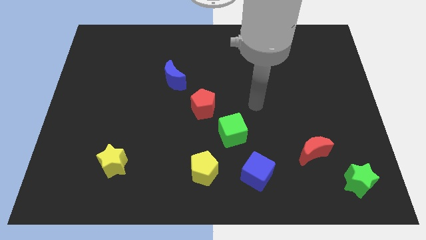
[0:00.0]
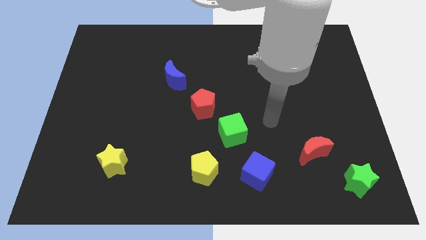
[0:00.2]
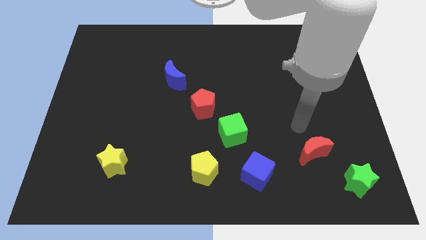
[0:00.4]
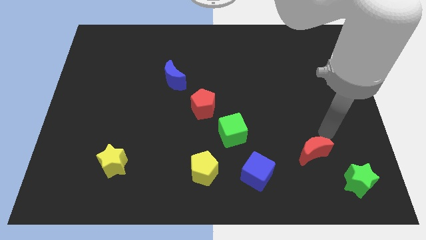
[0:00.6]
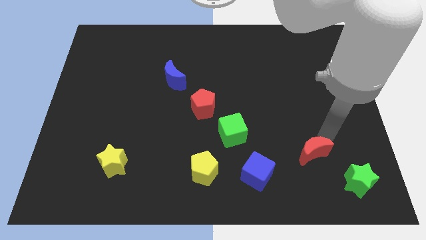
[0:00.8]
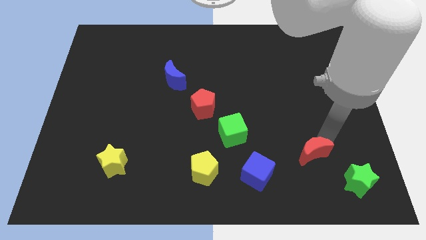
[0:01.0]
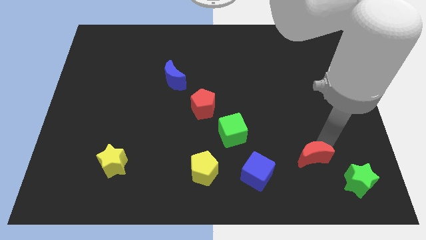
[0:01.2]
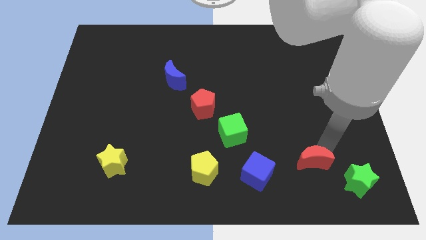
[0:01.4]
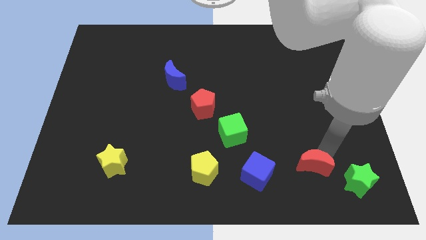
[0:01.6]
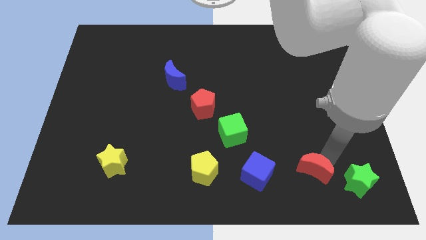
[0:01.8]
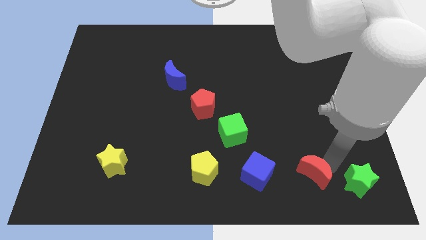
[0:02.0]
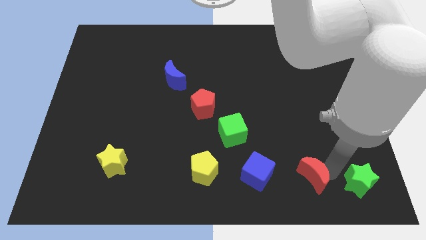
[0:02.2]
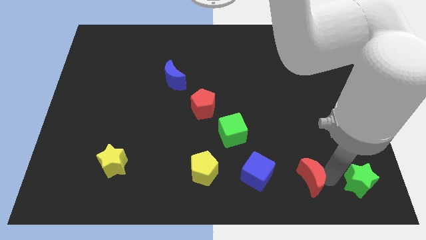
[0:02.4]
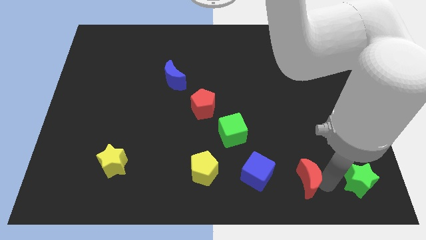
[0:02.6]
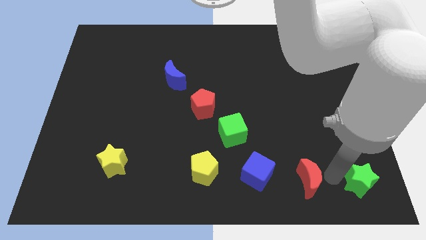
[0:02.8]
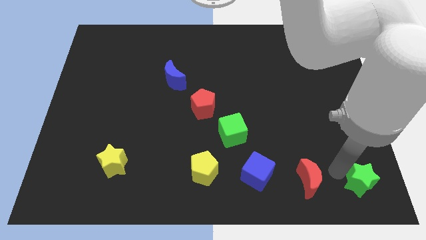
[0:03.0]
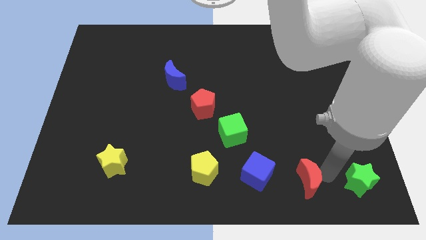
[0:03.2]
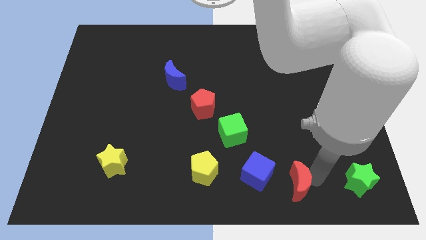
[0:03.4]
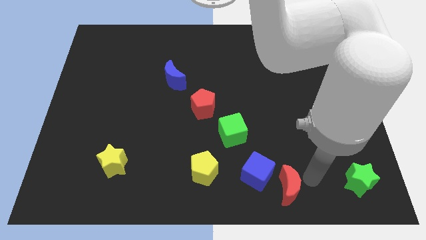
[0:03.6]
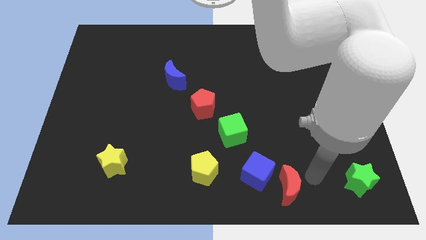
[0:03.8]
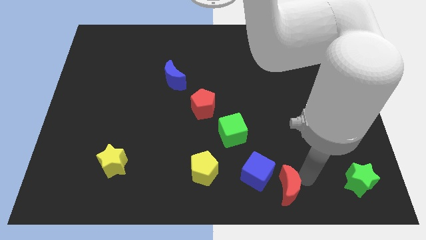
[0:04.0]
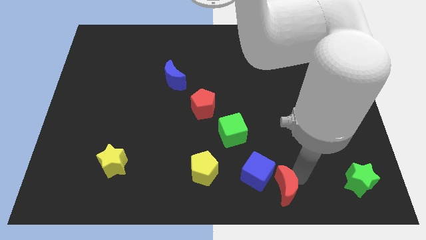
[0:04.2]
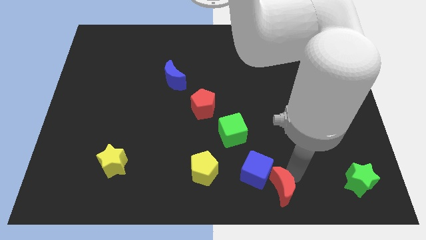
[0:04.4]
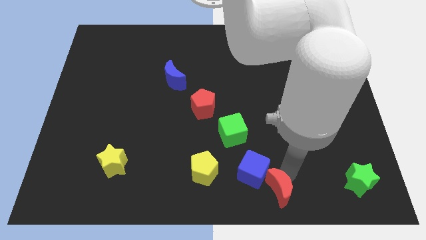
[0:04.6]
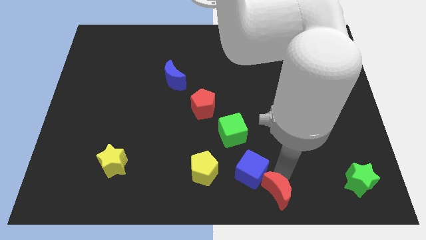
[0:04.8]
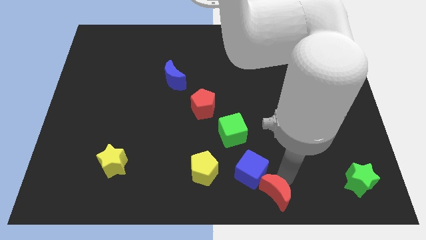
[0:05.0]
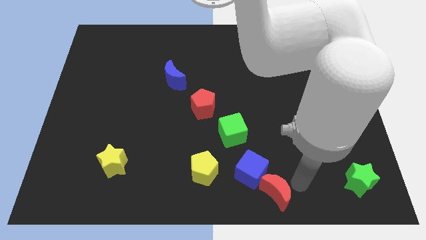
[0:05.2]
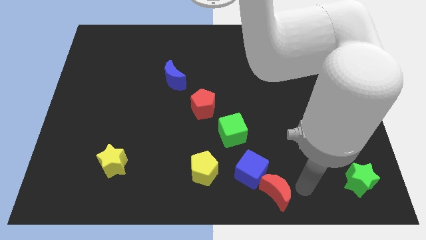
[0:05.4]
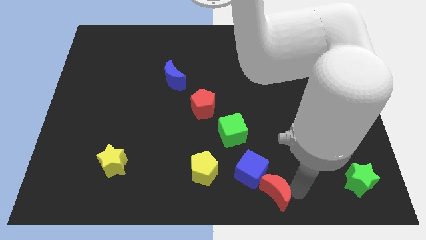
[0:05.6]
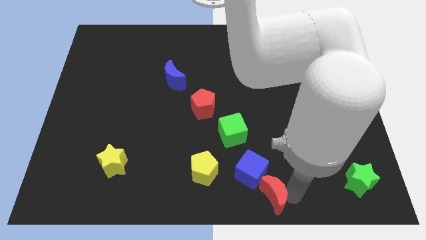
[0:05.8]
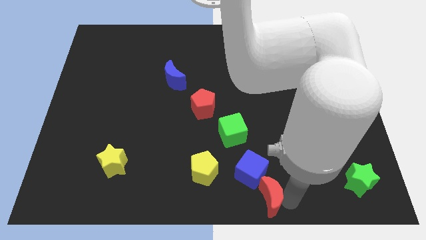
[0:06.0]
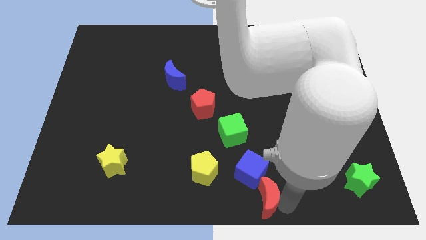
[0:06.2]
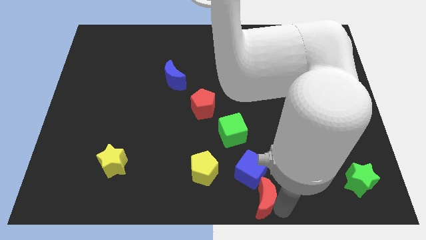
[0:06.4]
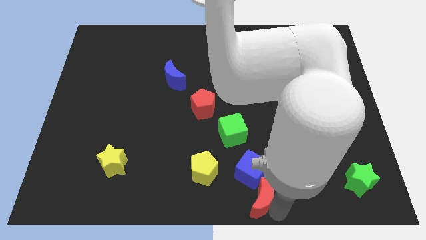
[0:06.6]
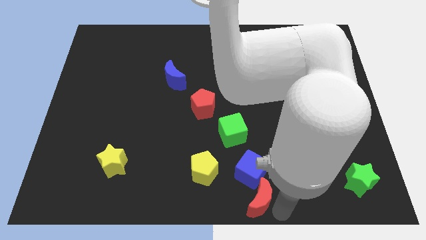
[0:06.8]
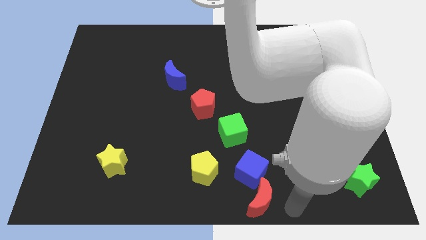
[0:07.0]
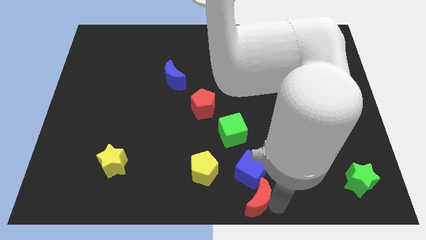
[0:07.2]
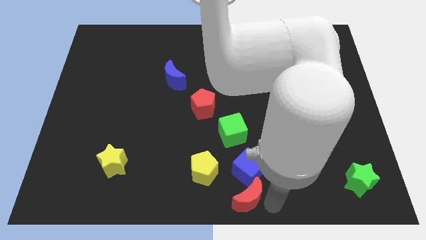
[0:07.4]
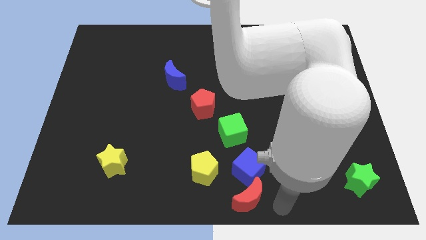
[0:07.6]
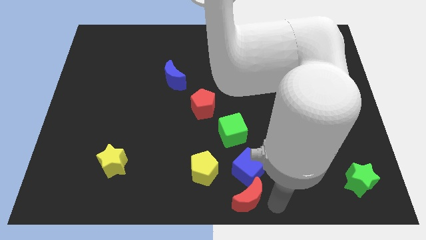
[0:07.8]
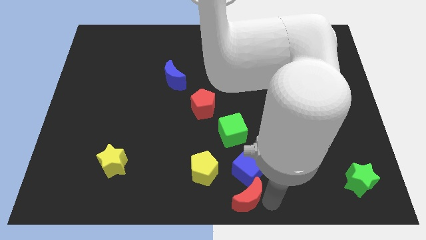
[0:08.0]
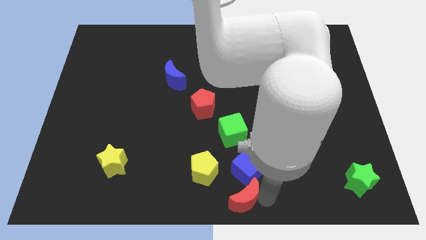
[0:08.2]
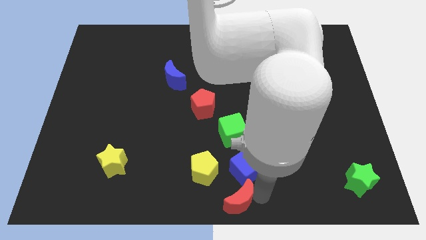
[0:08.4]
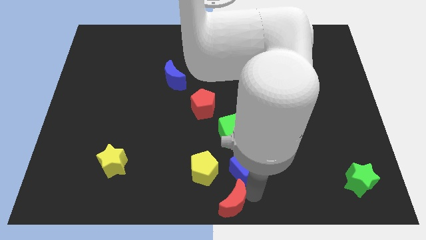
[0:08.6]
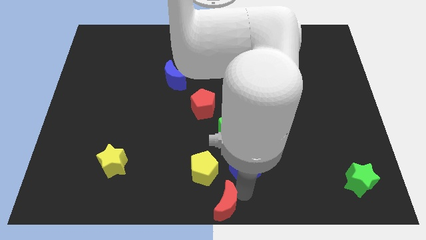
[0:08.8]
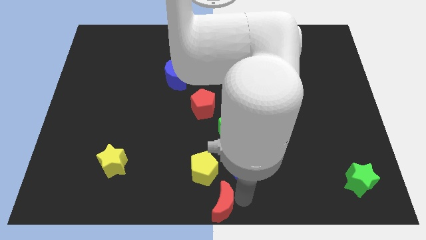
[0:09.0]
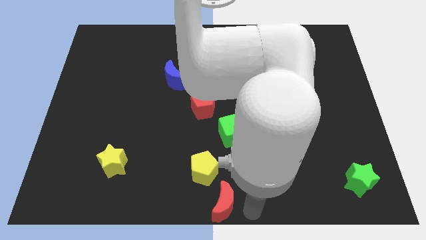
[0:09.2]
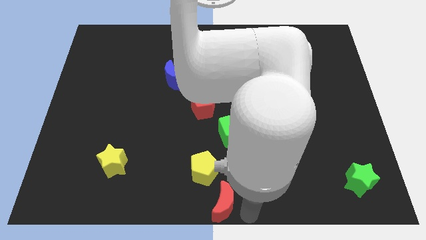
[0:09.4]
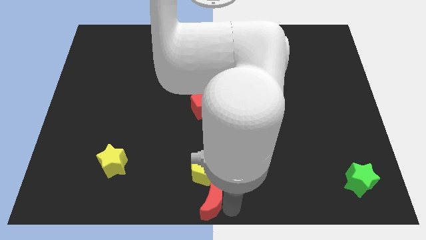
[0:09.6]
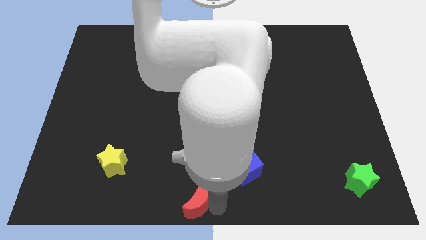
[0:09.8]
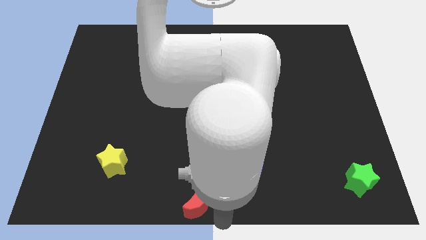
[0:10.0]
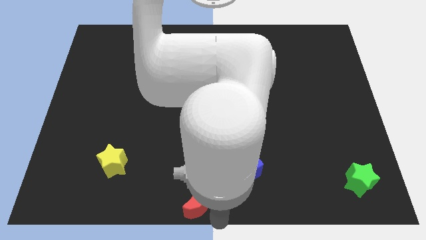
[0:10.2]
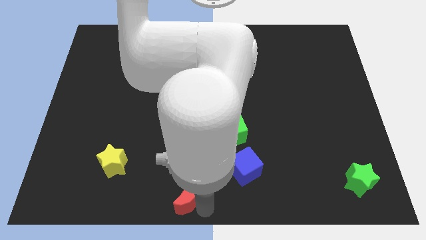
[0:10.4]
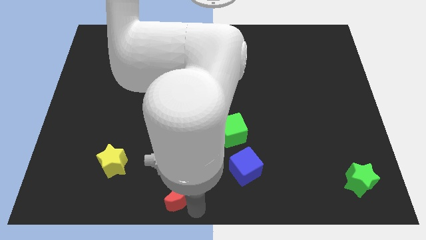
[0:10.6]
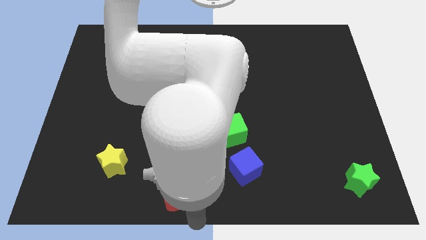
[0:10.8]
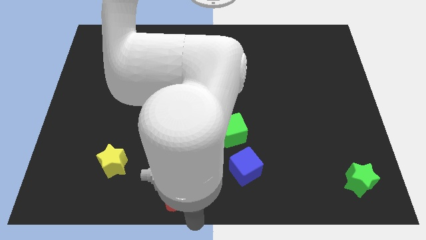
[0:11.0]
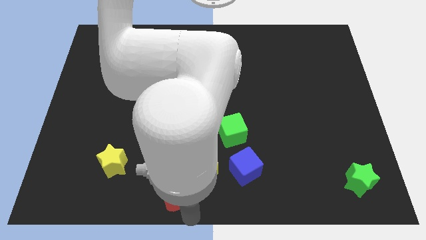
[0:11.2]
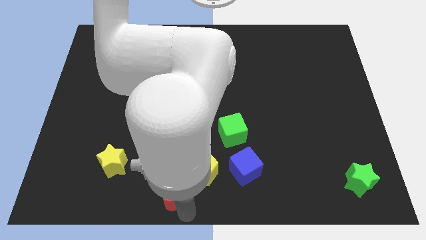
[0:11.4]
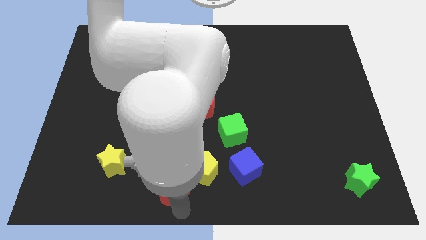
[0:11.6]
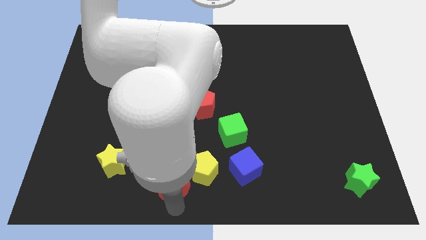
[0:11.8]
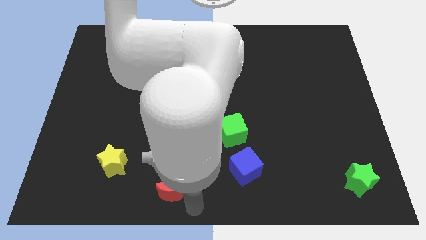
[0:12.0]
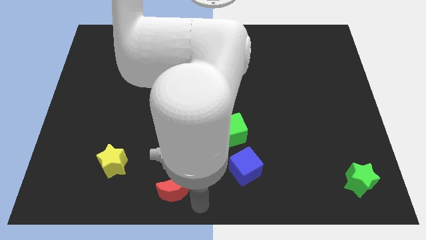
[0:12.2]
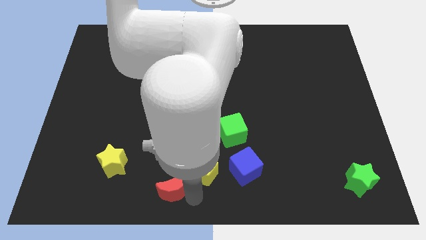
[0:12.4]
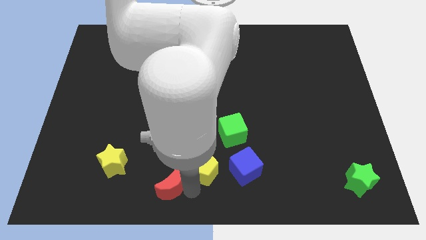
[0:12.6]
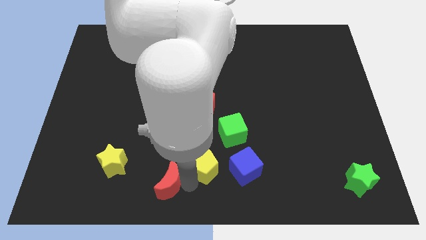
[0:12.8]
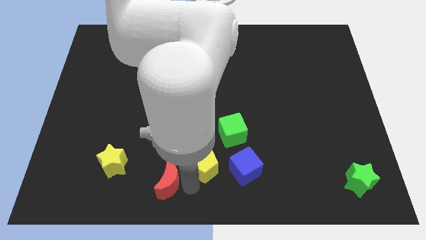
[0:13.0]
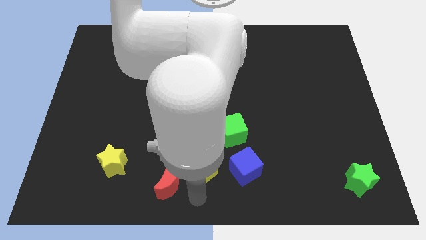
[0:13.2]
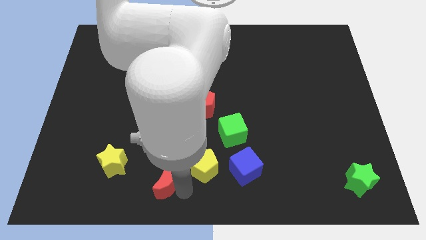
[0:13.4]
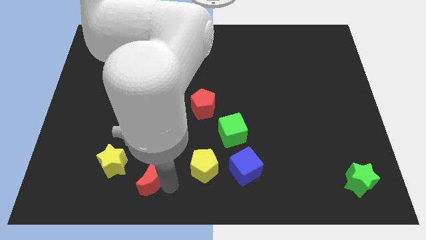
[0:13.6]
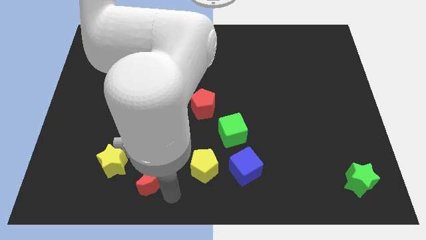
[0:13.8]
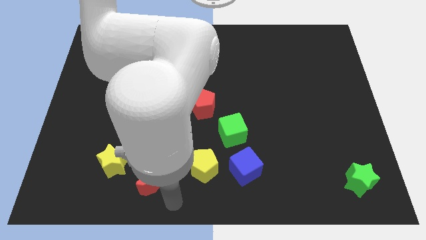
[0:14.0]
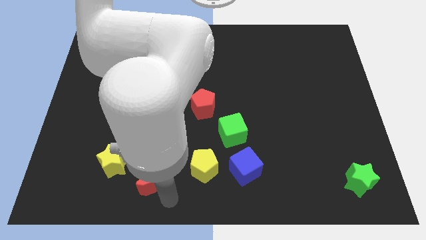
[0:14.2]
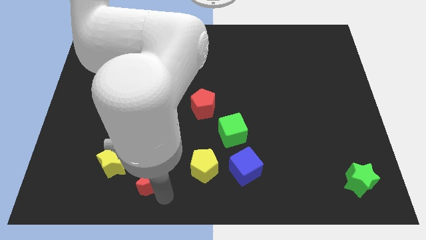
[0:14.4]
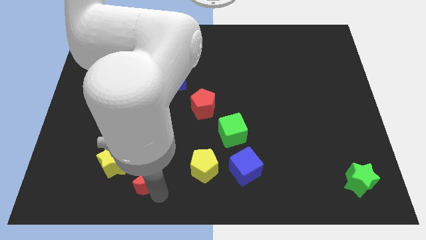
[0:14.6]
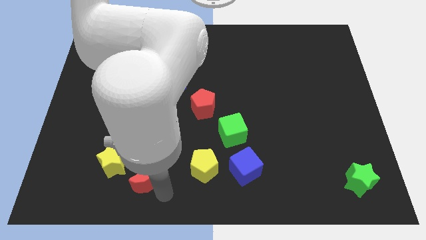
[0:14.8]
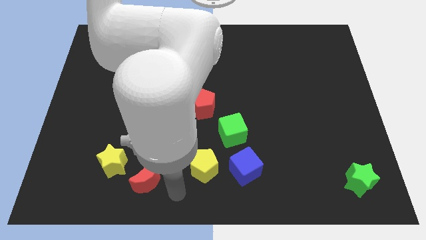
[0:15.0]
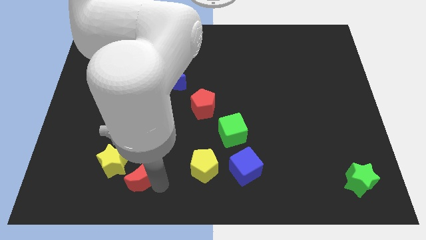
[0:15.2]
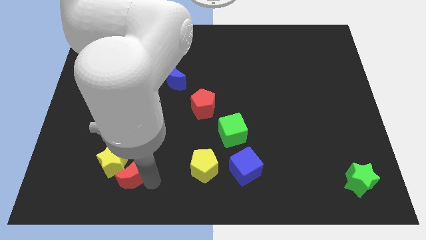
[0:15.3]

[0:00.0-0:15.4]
slide the red moon towards the yellow star
